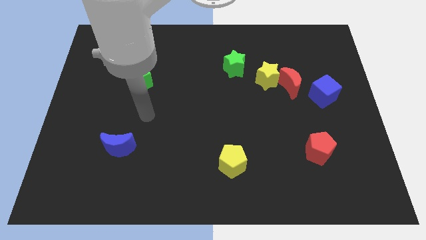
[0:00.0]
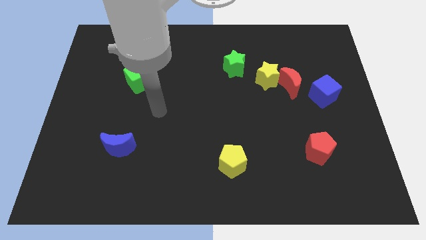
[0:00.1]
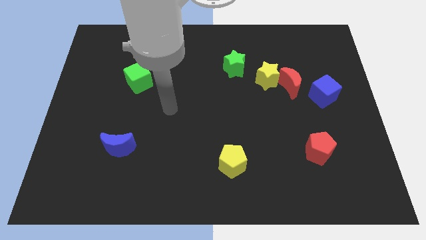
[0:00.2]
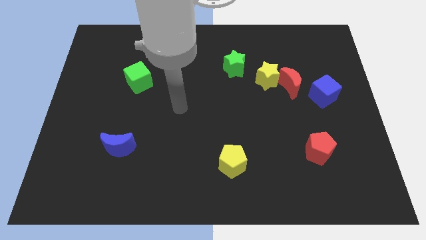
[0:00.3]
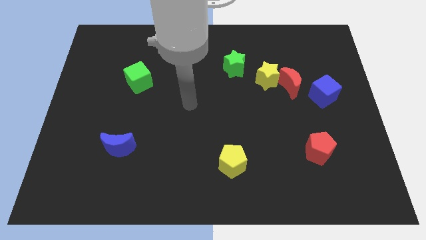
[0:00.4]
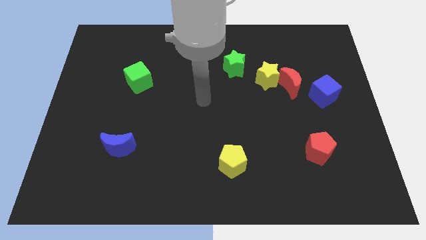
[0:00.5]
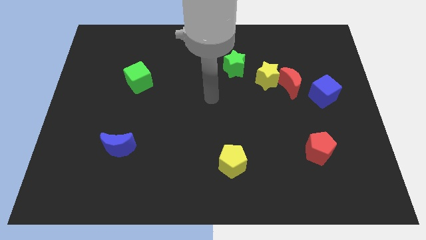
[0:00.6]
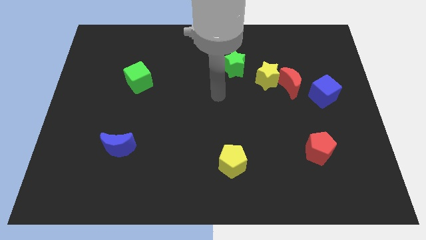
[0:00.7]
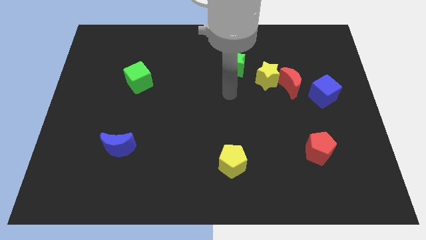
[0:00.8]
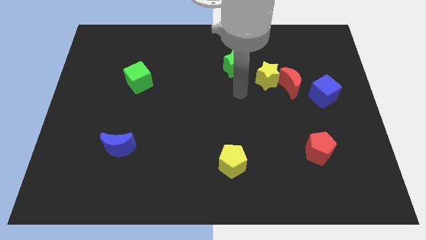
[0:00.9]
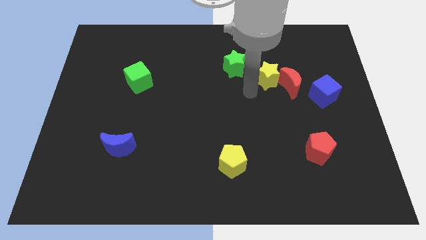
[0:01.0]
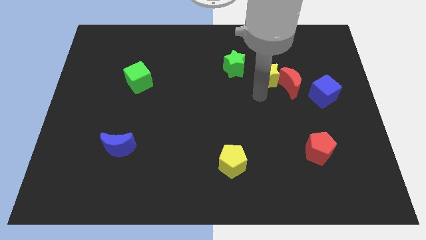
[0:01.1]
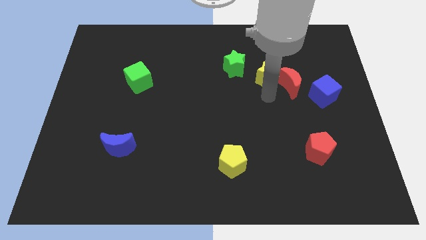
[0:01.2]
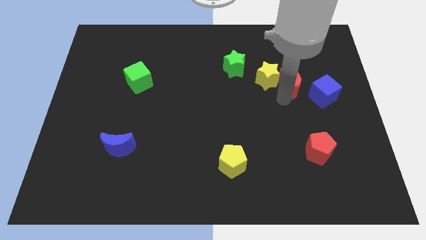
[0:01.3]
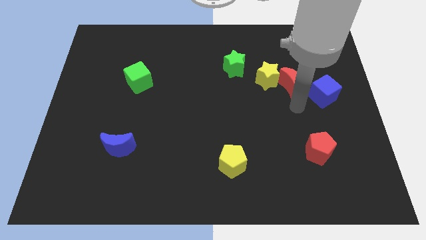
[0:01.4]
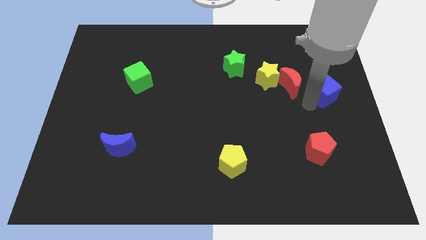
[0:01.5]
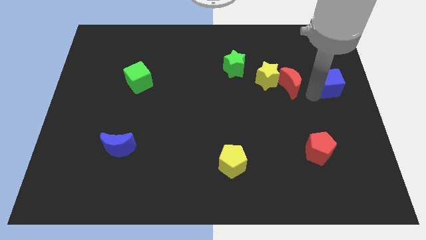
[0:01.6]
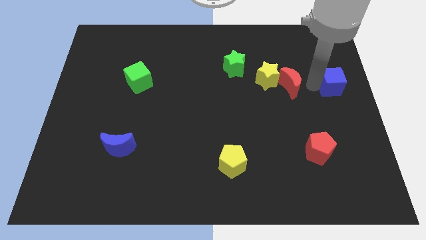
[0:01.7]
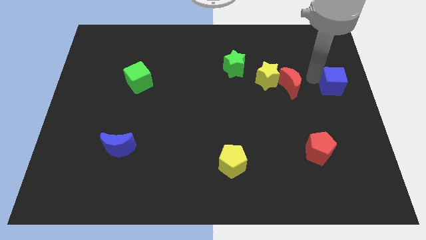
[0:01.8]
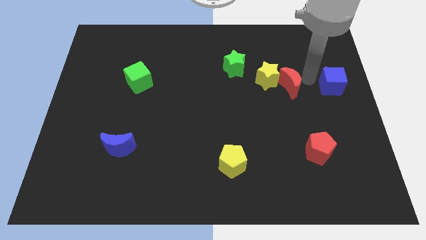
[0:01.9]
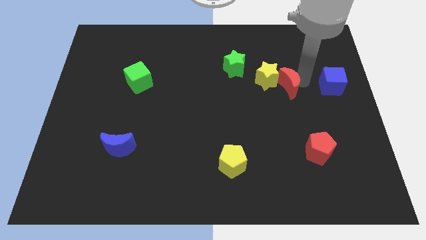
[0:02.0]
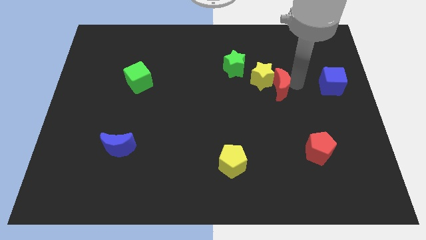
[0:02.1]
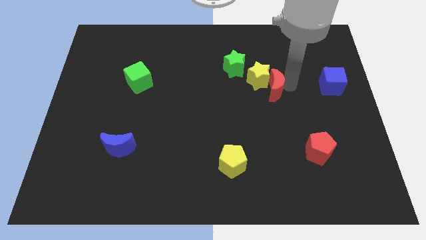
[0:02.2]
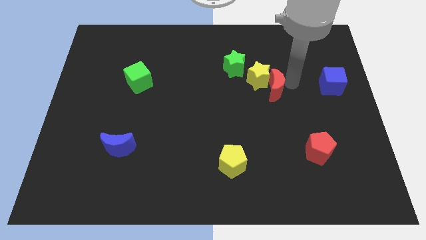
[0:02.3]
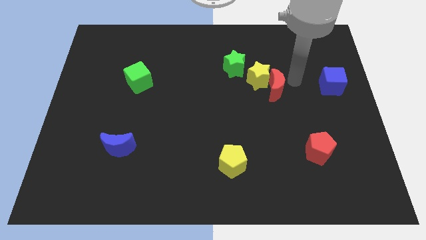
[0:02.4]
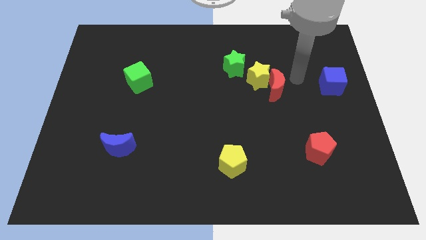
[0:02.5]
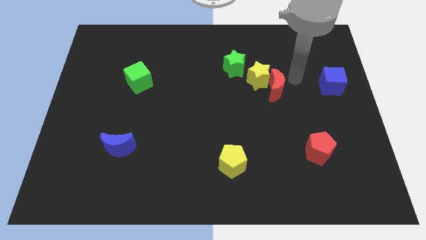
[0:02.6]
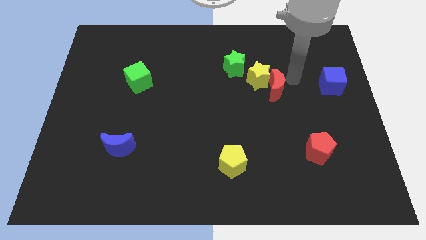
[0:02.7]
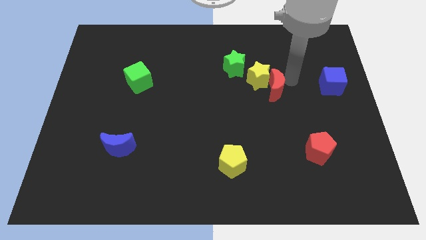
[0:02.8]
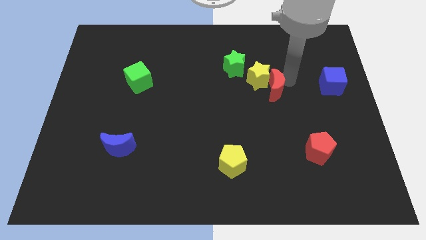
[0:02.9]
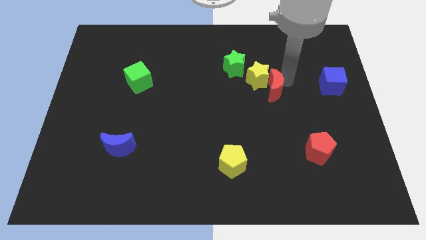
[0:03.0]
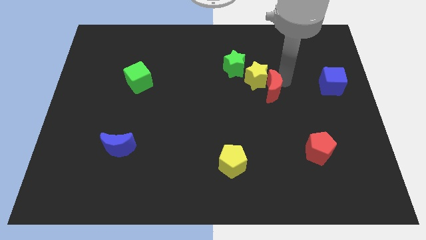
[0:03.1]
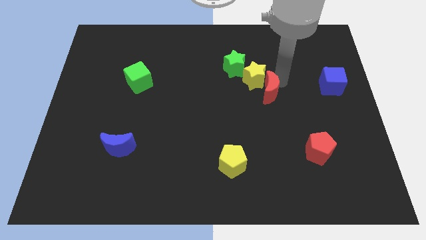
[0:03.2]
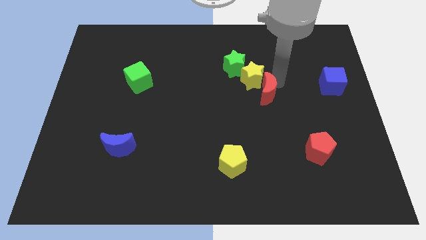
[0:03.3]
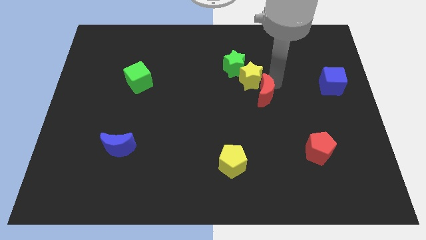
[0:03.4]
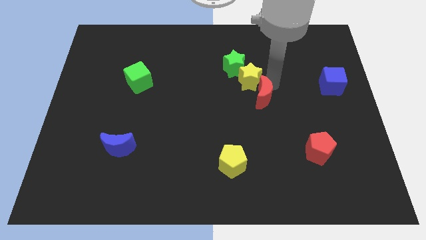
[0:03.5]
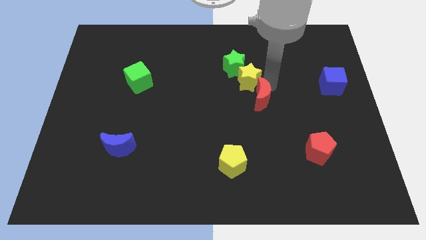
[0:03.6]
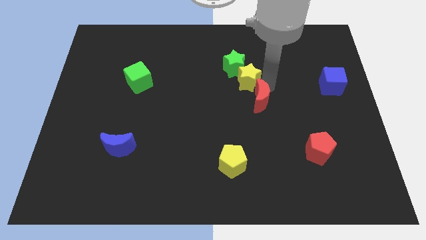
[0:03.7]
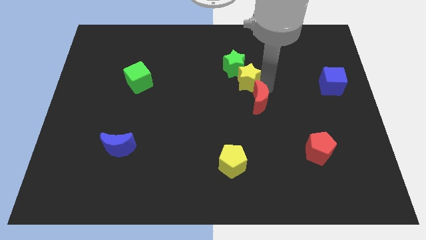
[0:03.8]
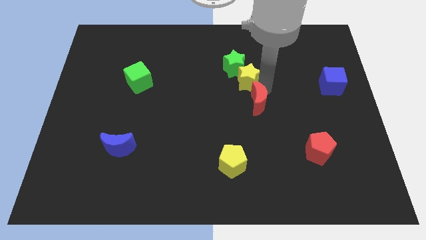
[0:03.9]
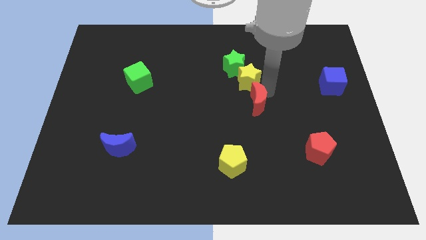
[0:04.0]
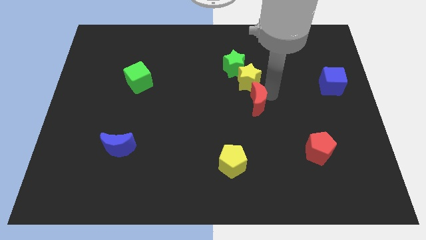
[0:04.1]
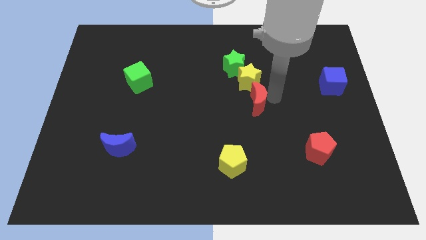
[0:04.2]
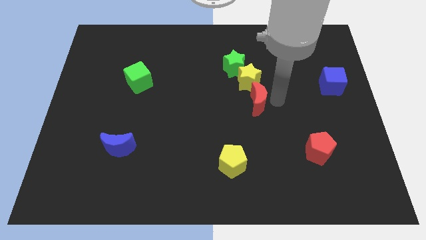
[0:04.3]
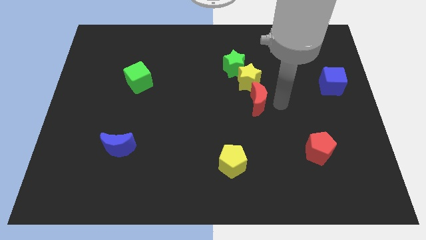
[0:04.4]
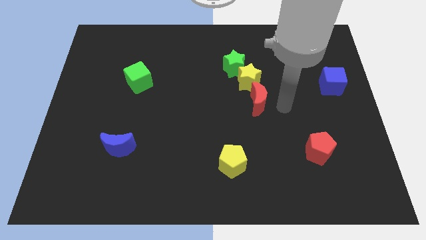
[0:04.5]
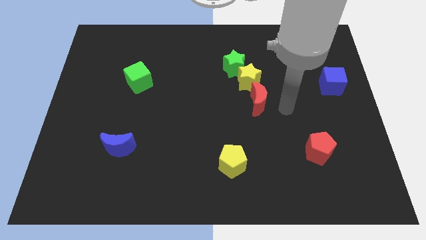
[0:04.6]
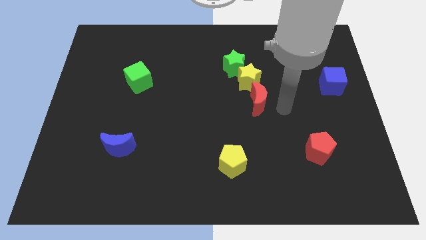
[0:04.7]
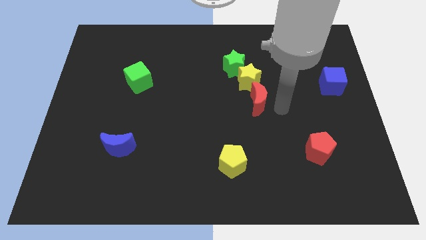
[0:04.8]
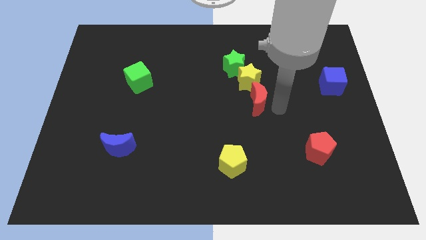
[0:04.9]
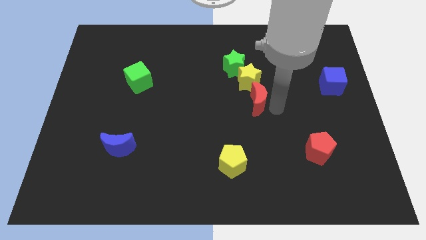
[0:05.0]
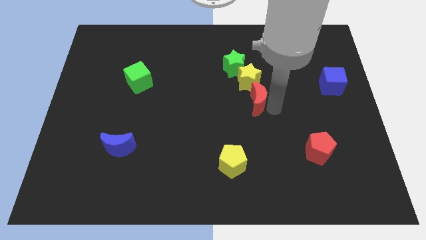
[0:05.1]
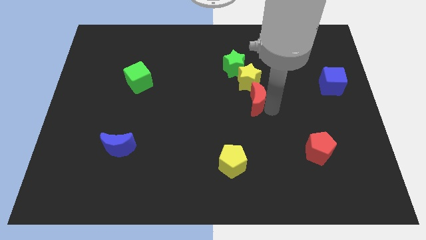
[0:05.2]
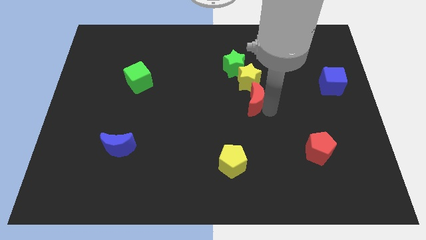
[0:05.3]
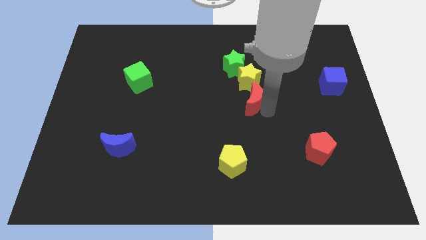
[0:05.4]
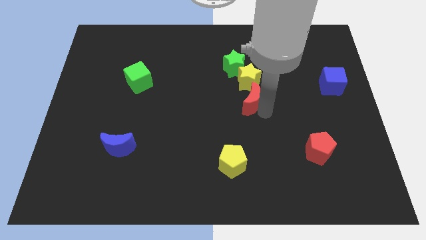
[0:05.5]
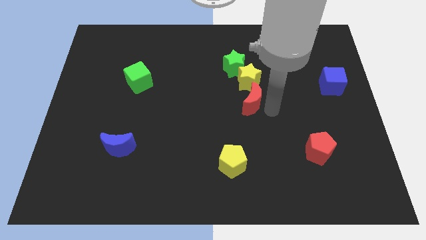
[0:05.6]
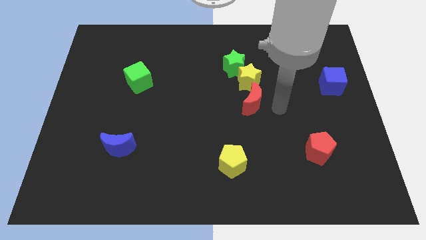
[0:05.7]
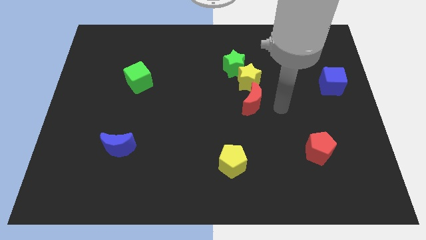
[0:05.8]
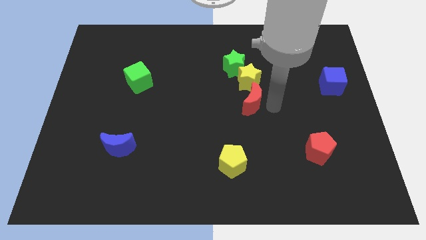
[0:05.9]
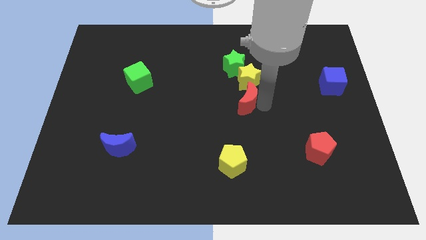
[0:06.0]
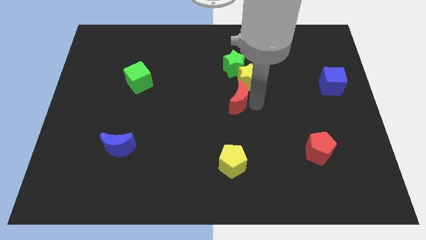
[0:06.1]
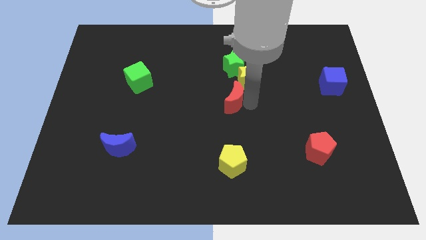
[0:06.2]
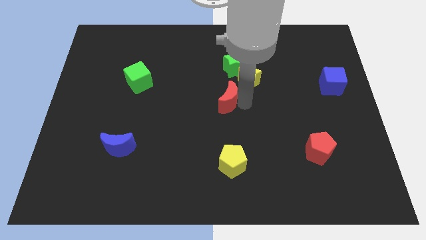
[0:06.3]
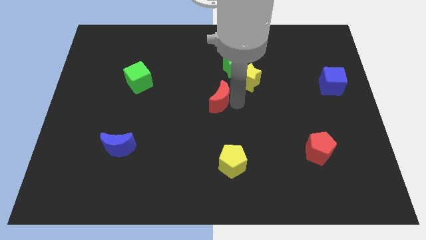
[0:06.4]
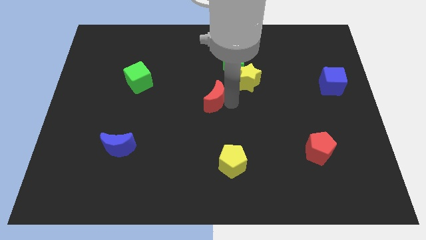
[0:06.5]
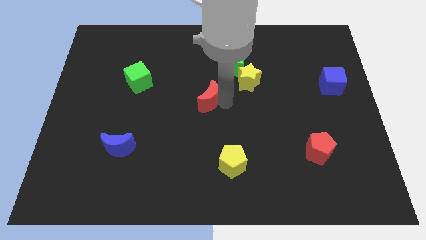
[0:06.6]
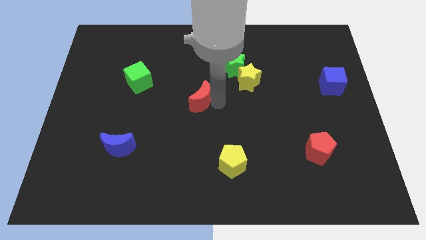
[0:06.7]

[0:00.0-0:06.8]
move the red moon to the left

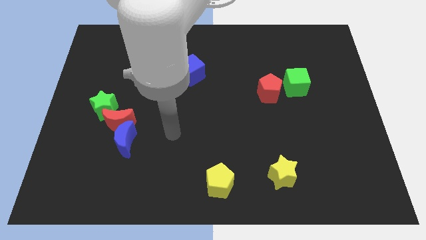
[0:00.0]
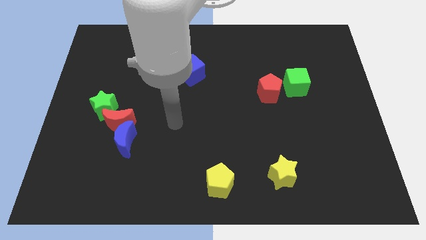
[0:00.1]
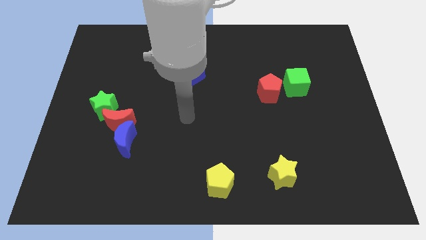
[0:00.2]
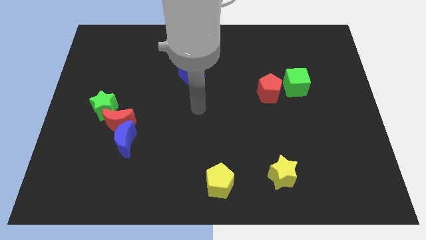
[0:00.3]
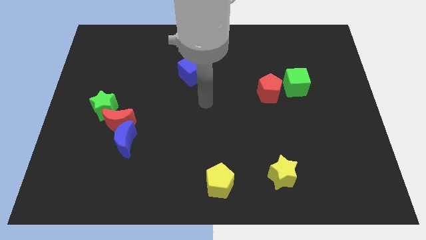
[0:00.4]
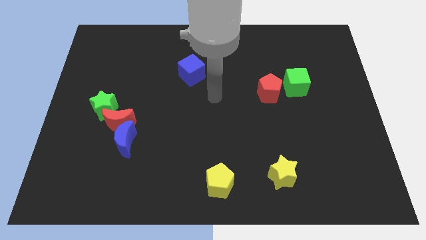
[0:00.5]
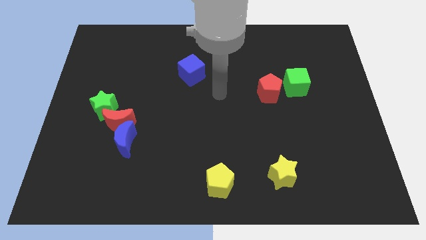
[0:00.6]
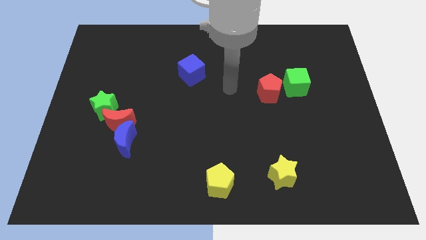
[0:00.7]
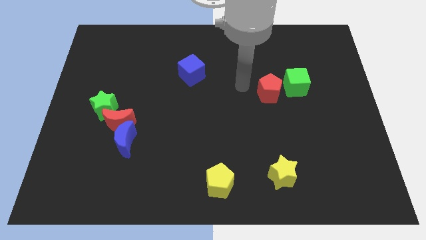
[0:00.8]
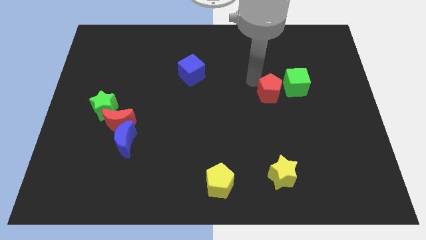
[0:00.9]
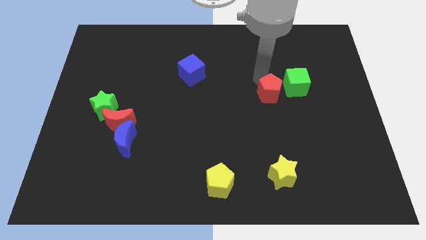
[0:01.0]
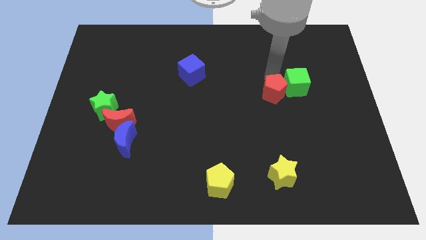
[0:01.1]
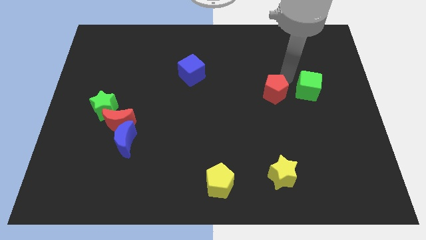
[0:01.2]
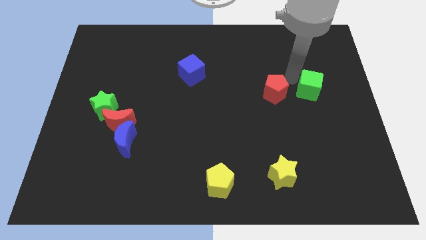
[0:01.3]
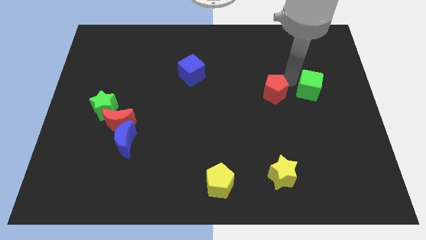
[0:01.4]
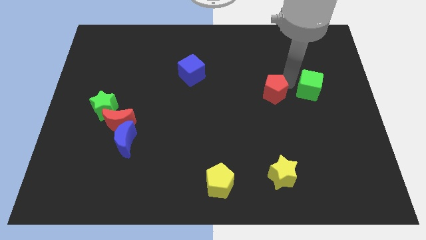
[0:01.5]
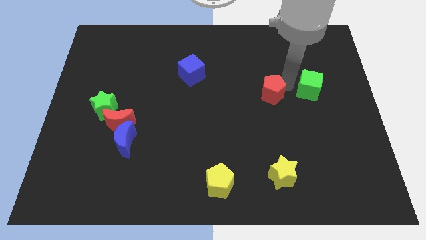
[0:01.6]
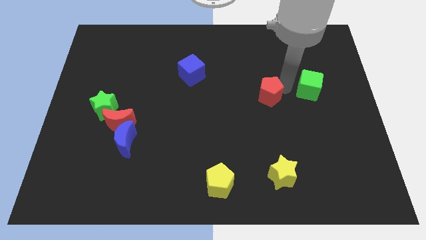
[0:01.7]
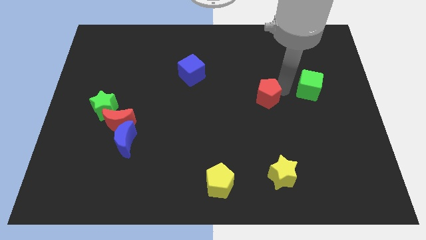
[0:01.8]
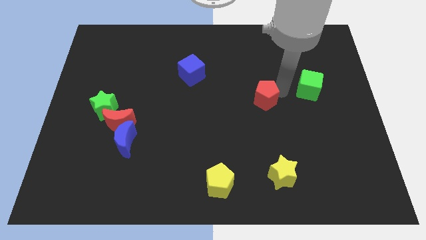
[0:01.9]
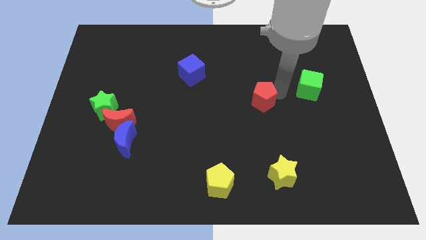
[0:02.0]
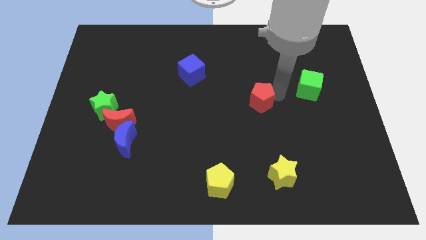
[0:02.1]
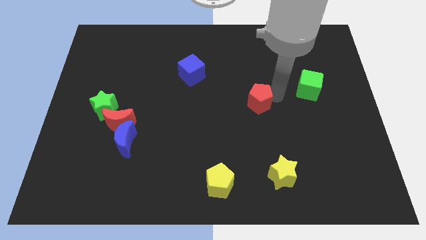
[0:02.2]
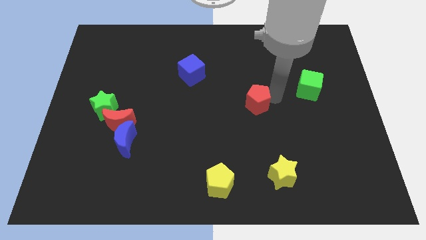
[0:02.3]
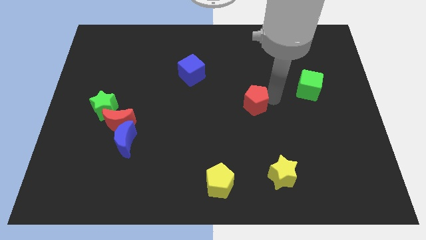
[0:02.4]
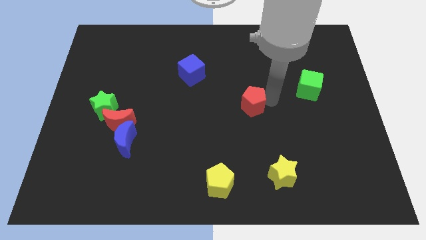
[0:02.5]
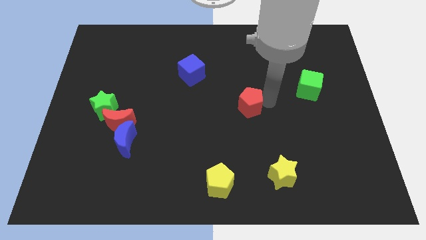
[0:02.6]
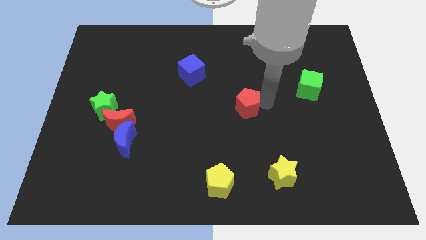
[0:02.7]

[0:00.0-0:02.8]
slide the red pentagon somewhat down and to the left
